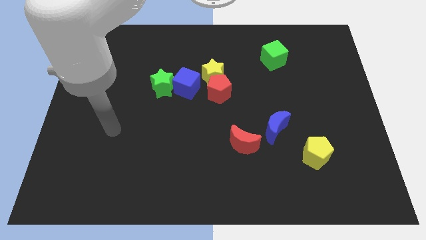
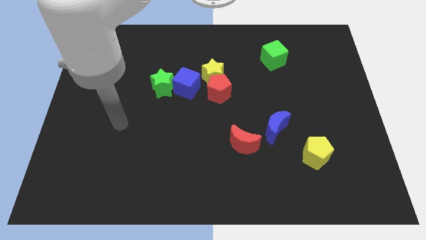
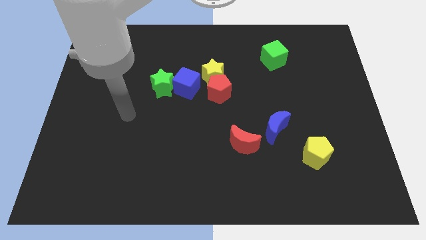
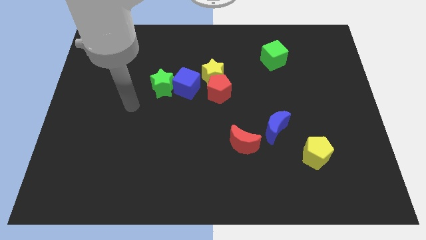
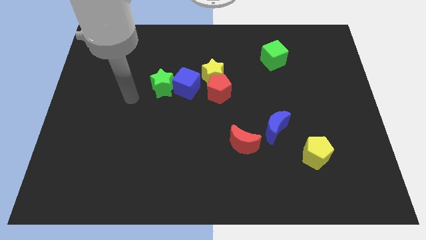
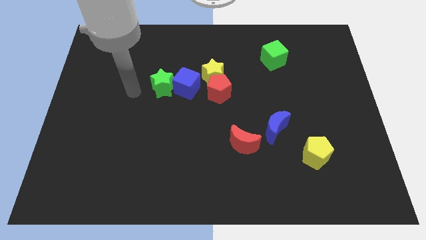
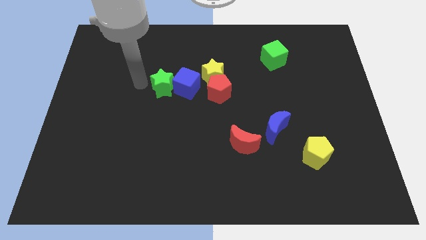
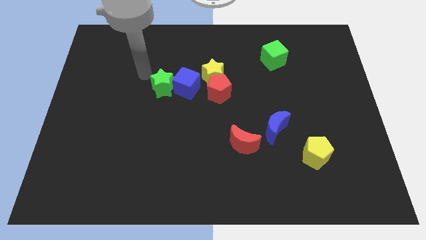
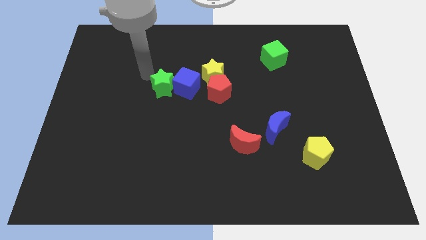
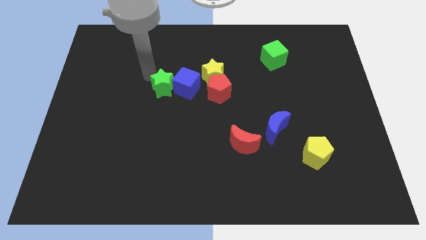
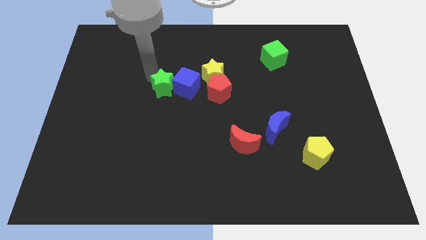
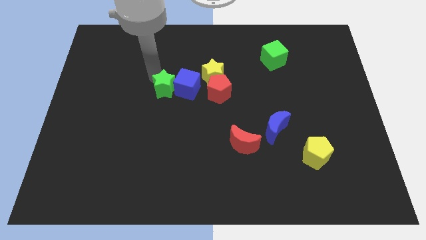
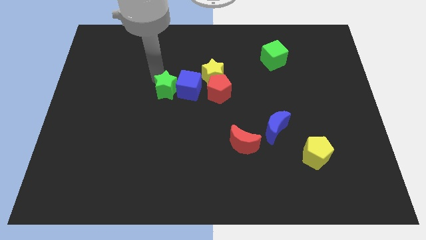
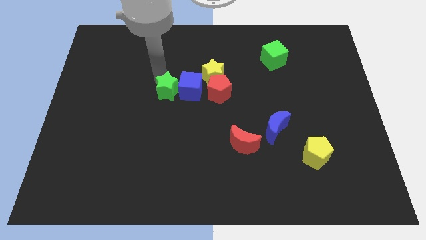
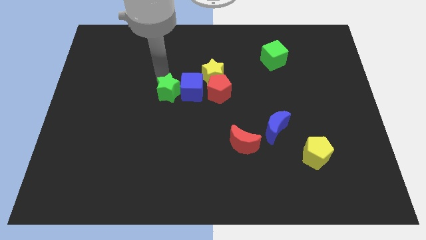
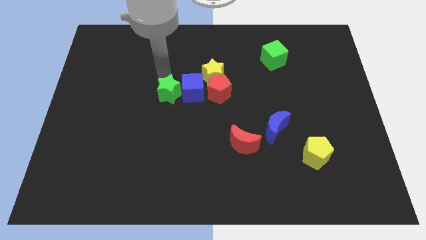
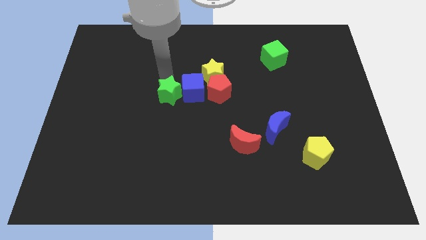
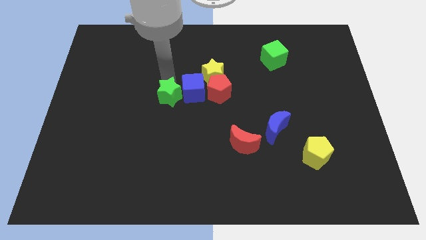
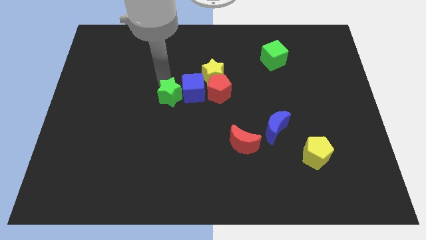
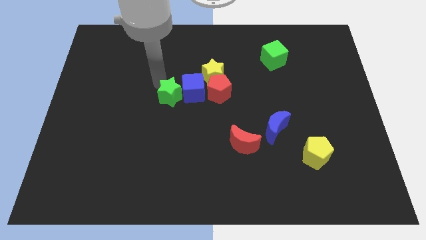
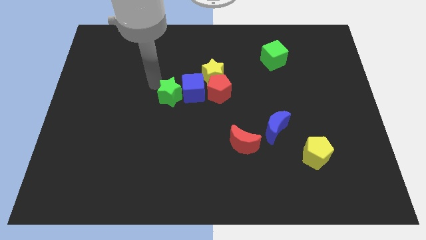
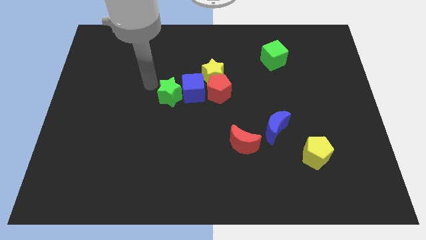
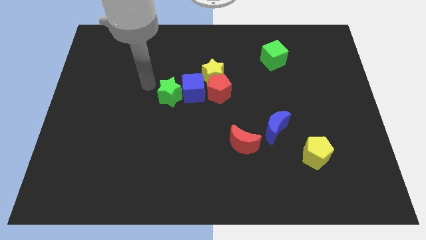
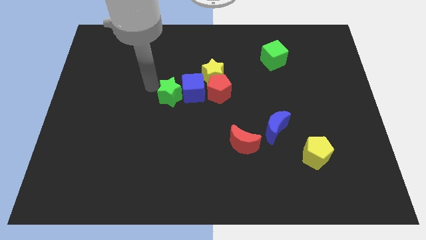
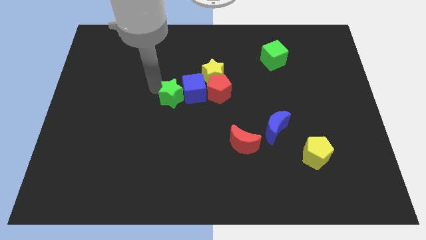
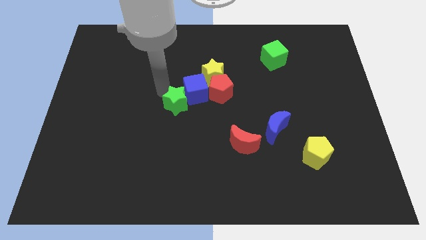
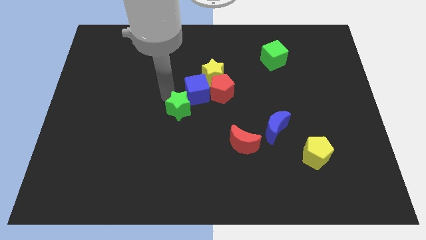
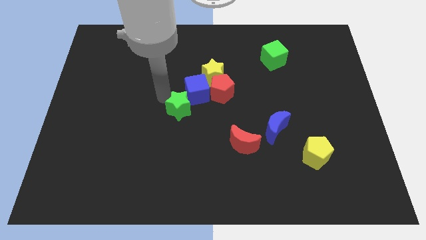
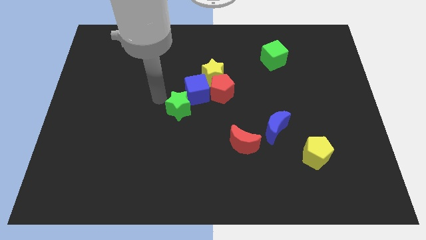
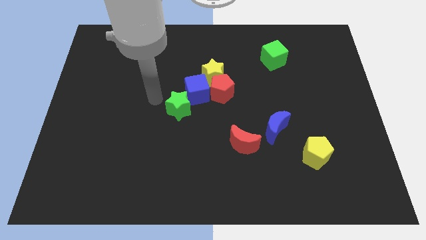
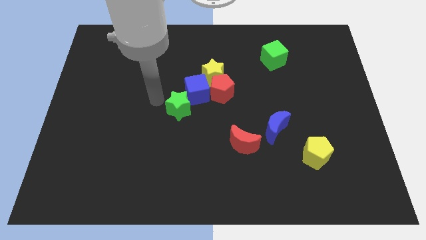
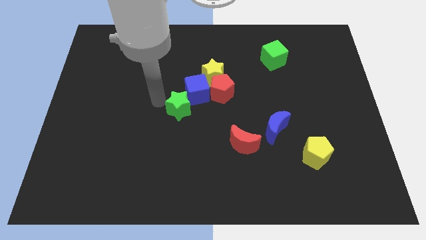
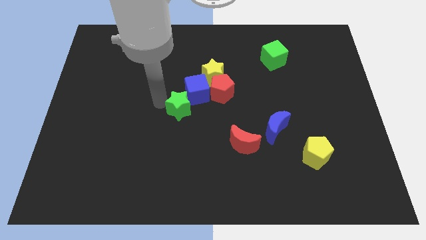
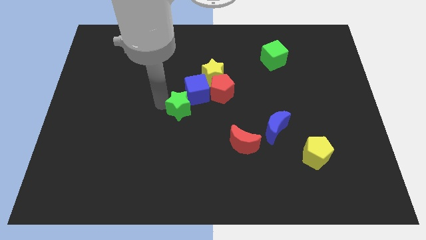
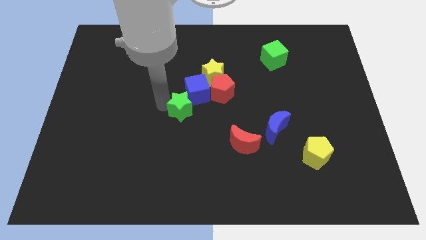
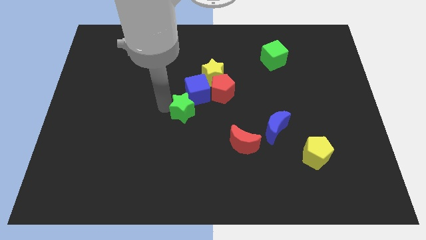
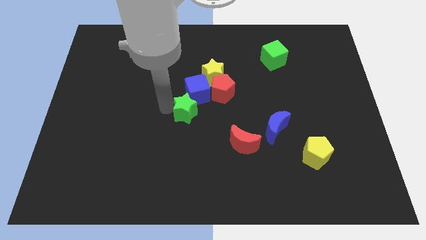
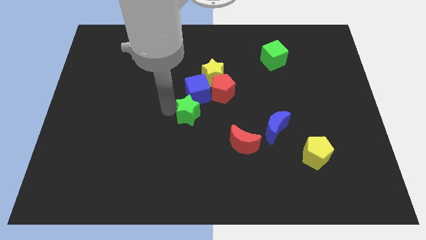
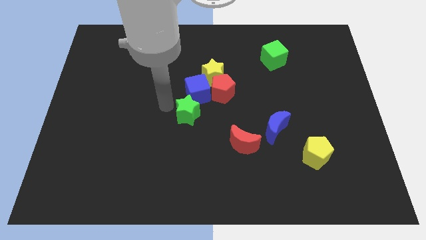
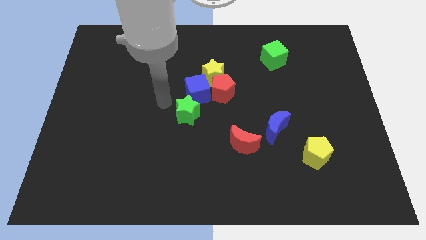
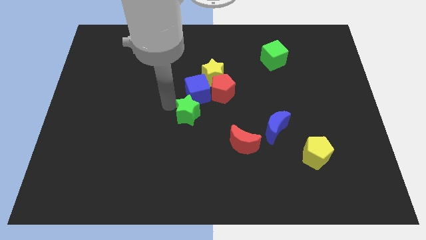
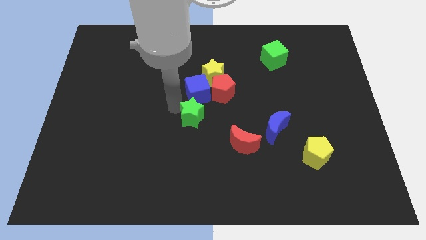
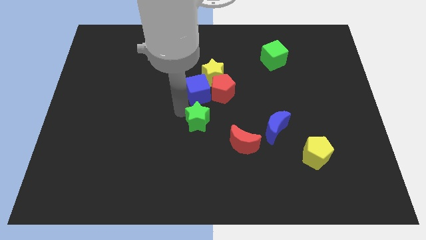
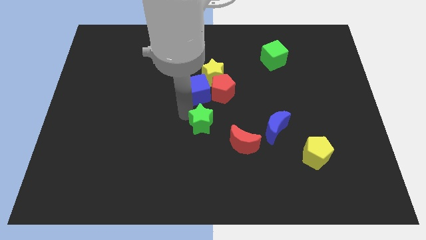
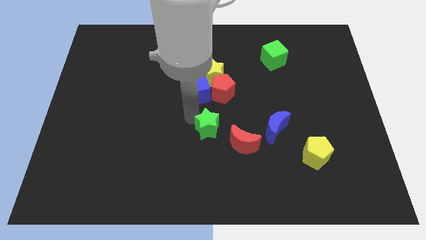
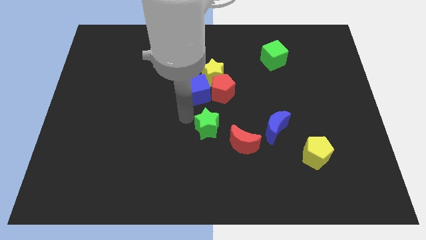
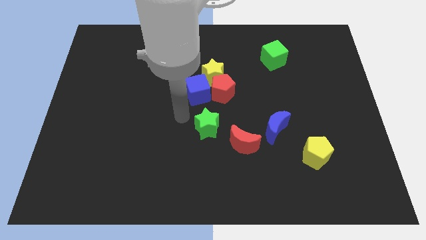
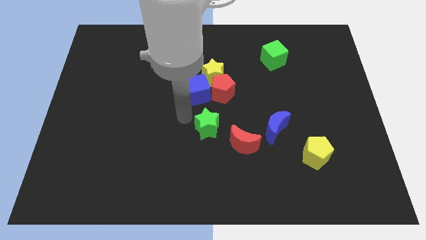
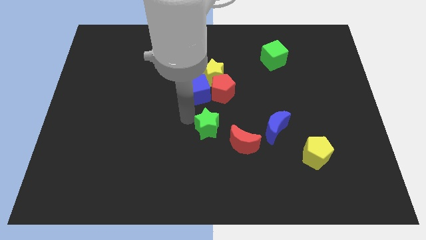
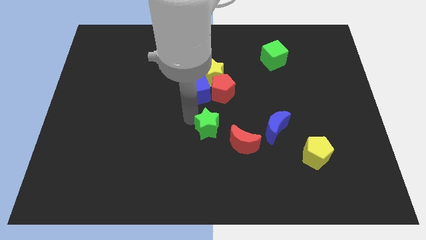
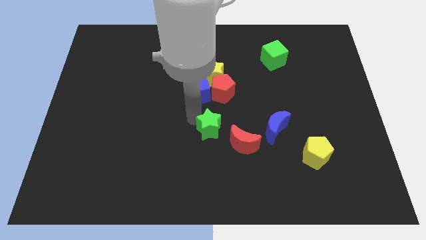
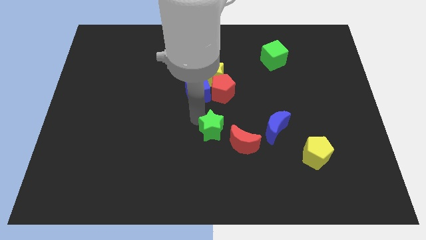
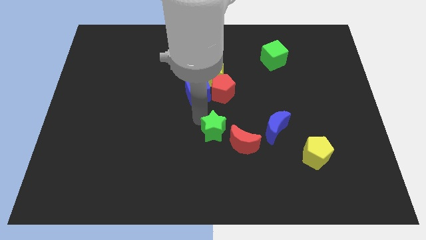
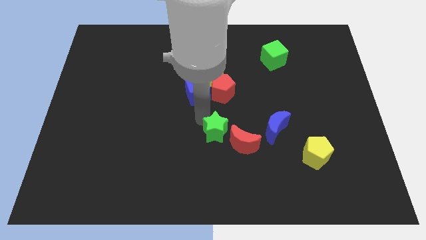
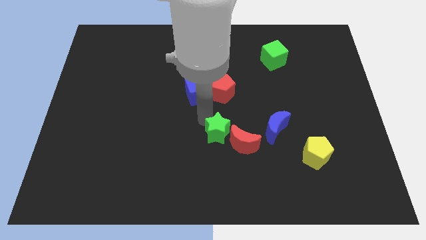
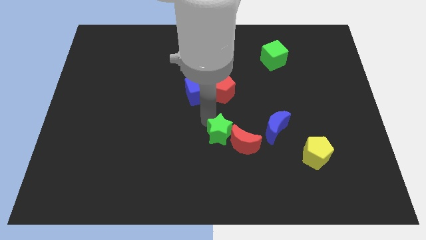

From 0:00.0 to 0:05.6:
put the green star next to the red moon

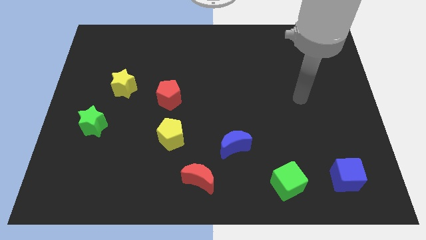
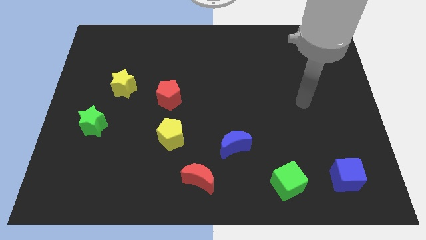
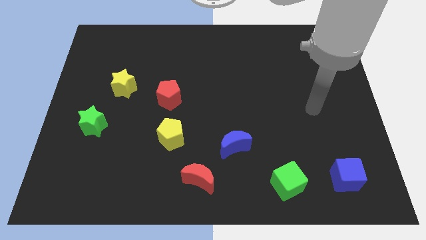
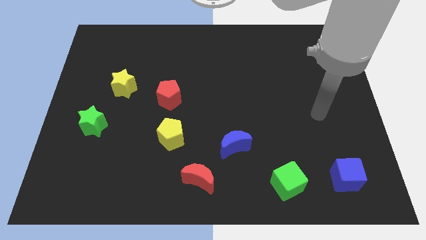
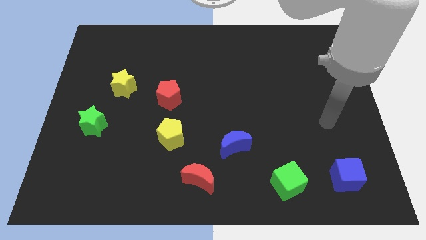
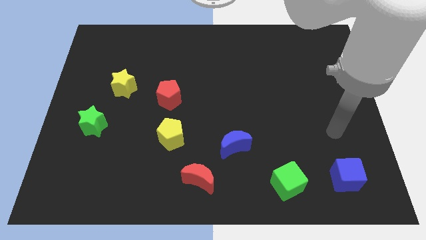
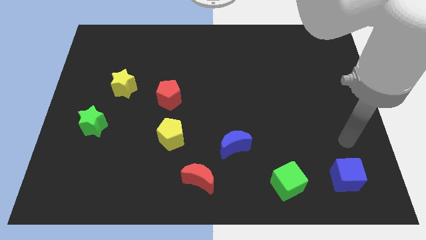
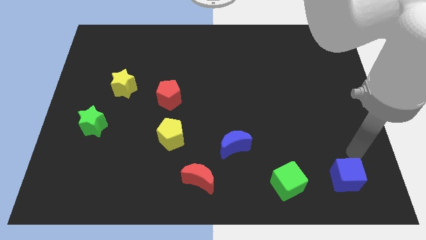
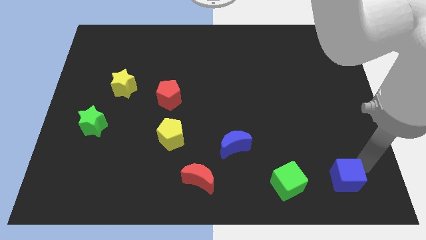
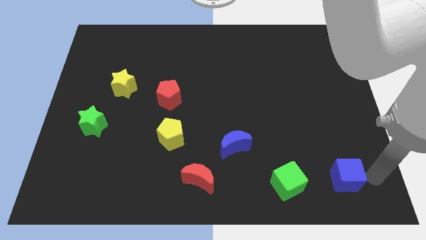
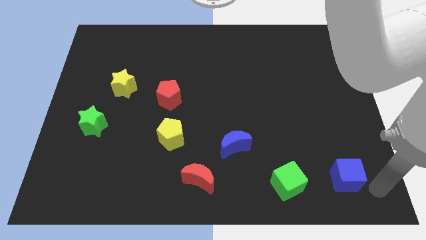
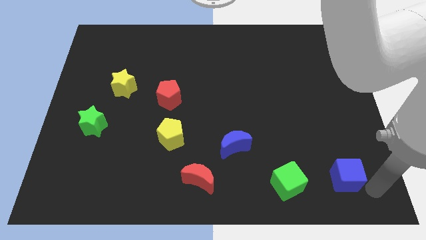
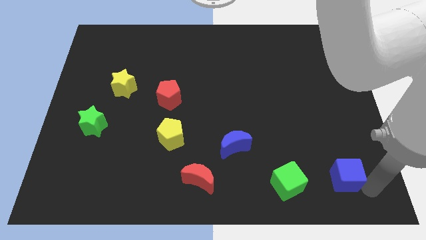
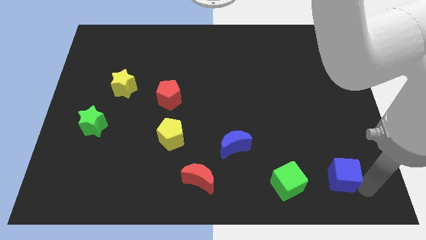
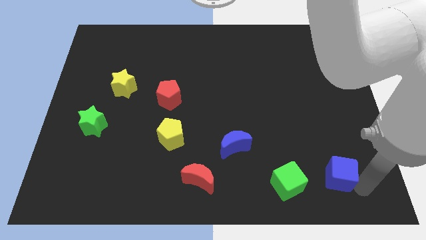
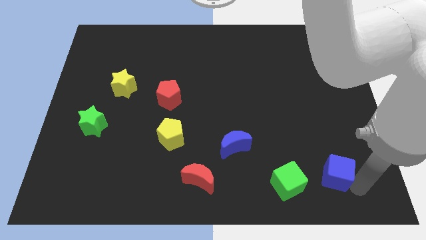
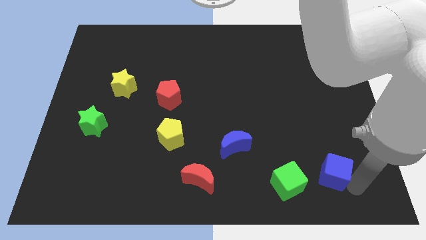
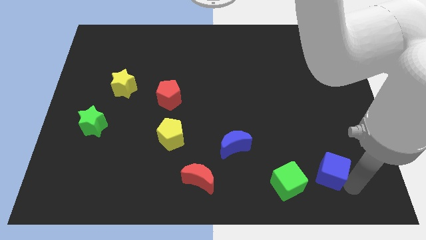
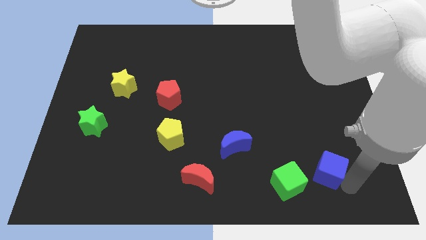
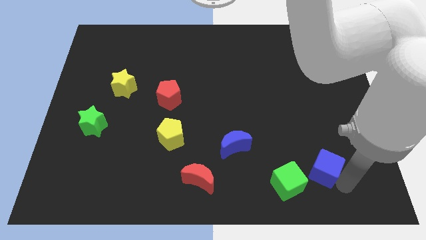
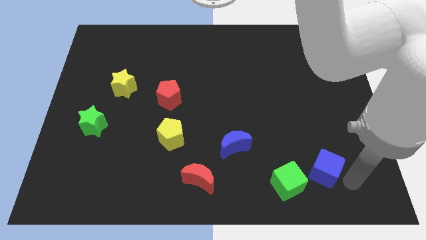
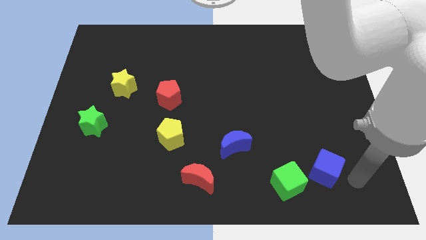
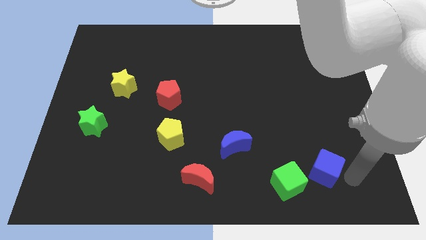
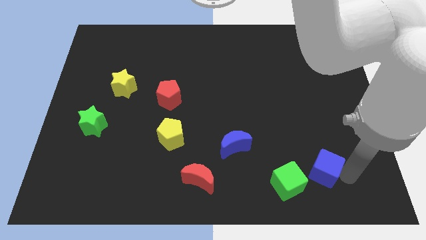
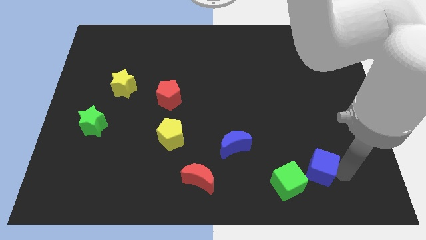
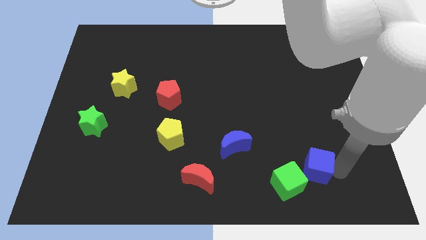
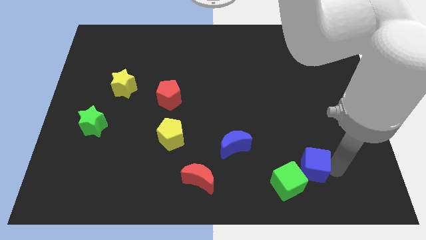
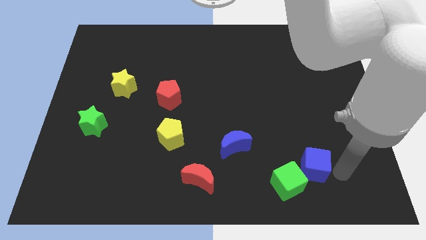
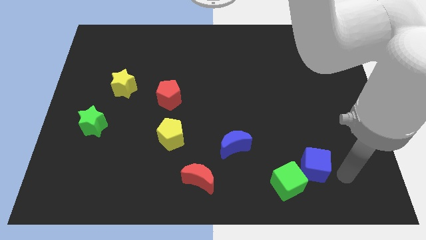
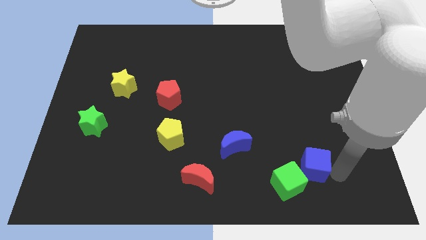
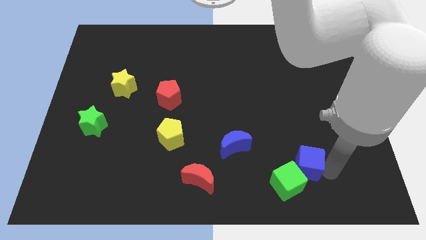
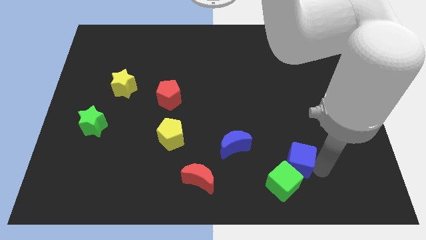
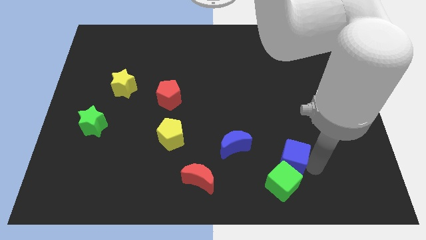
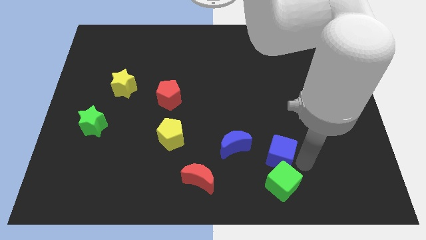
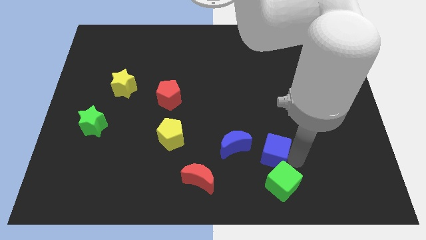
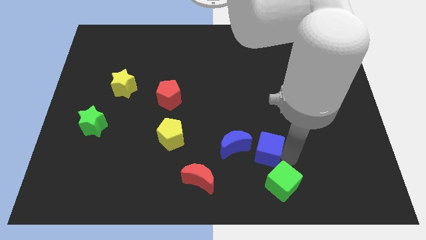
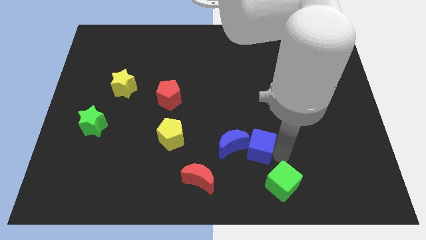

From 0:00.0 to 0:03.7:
move the blue cube to the blue moon
